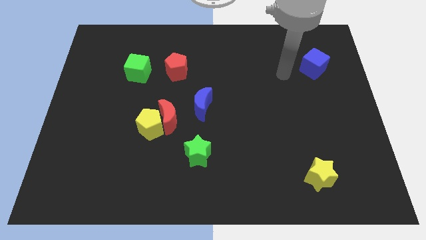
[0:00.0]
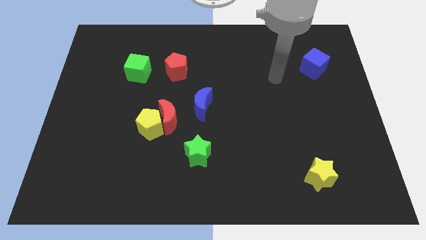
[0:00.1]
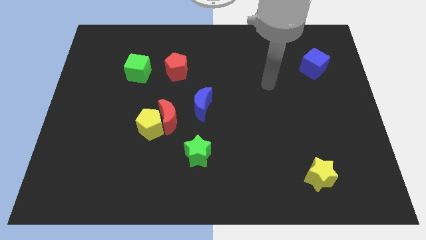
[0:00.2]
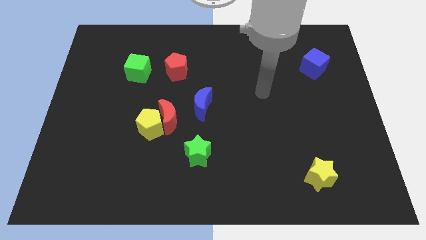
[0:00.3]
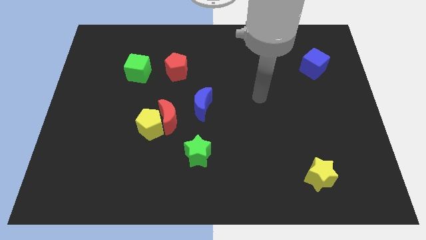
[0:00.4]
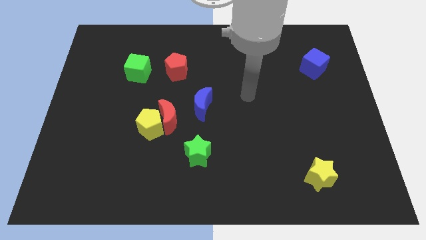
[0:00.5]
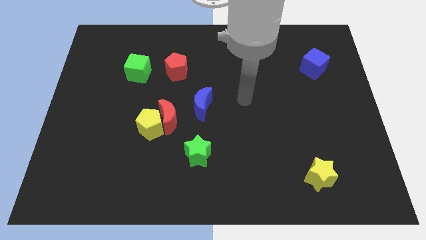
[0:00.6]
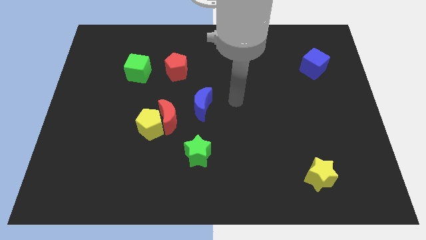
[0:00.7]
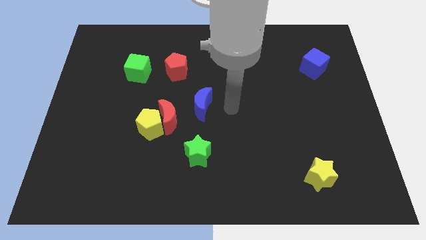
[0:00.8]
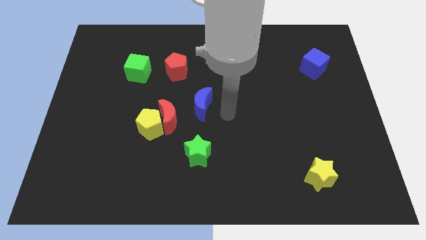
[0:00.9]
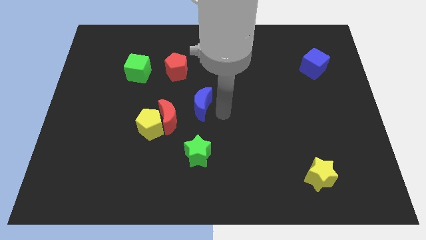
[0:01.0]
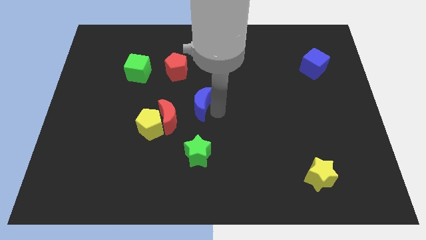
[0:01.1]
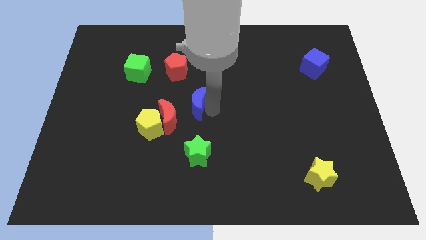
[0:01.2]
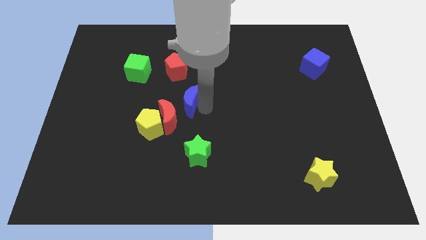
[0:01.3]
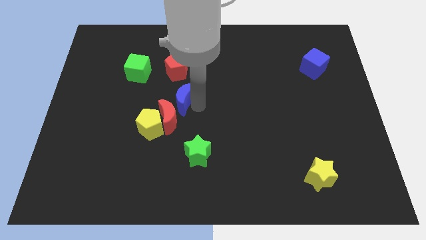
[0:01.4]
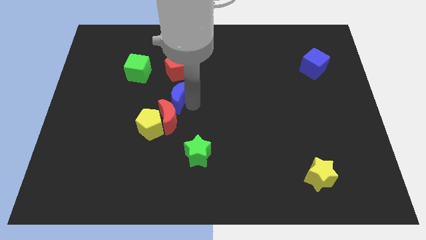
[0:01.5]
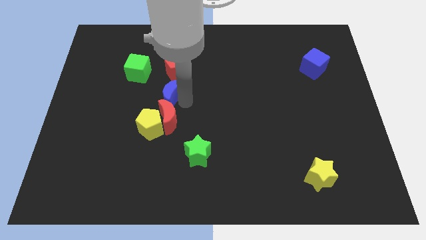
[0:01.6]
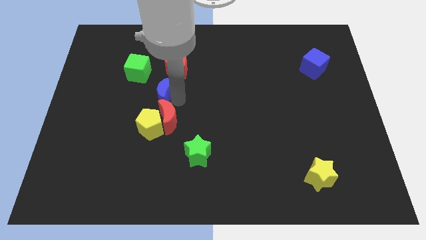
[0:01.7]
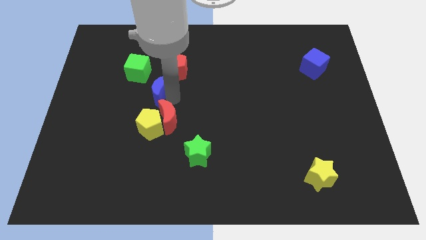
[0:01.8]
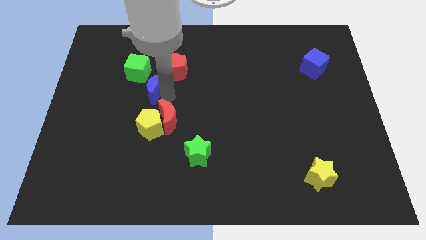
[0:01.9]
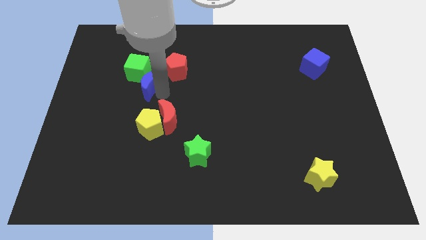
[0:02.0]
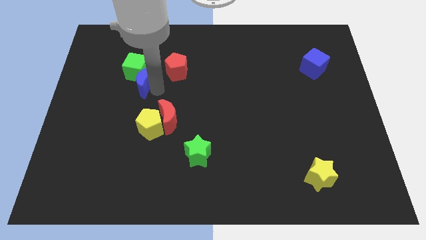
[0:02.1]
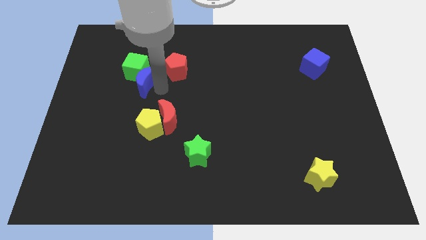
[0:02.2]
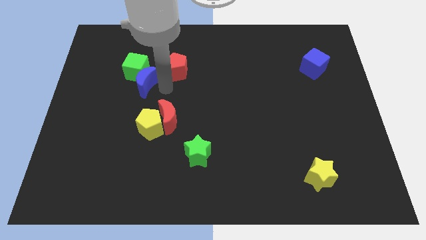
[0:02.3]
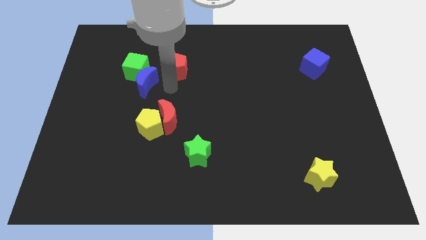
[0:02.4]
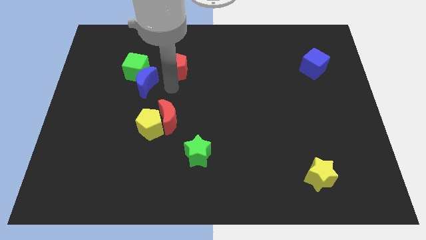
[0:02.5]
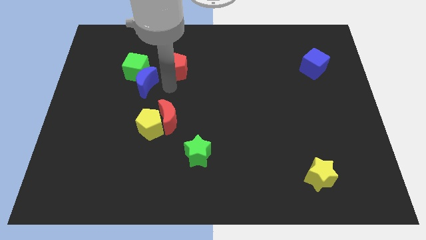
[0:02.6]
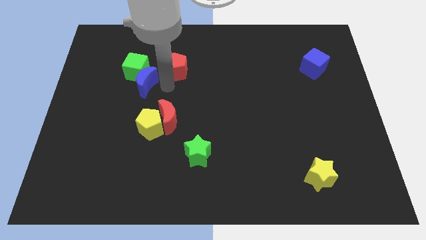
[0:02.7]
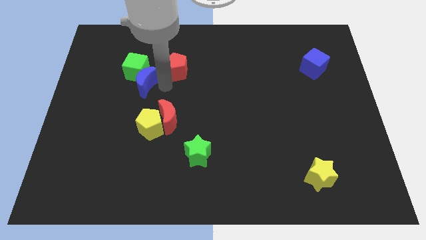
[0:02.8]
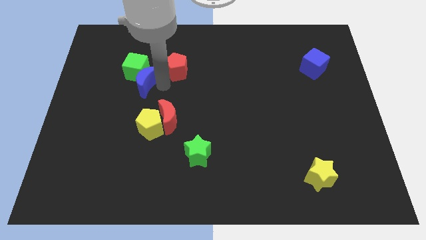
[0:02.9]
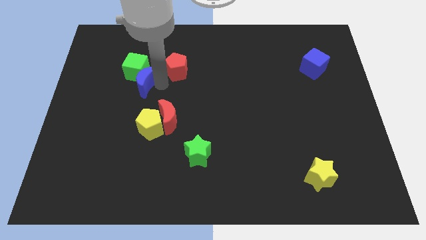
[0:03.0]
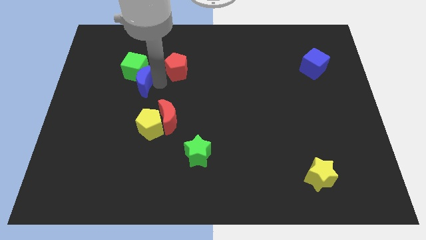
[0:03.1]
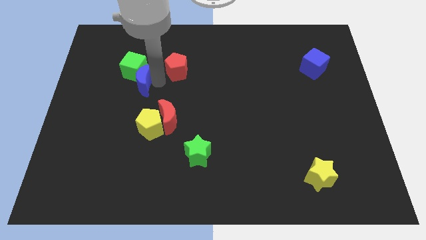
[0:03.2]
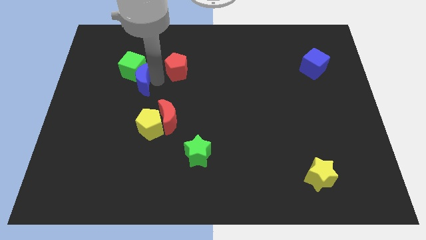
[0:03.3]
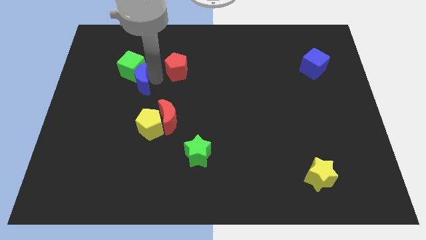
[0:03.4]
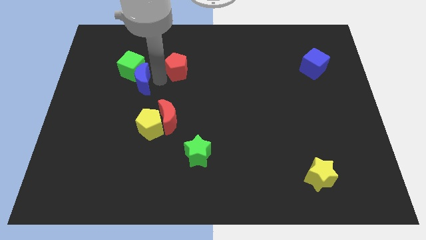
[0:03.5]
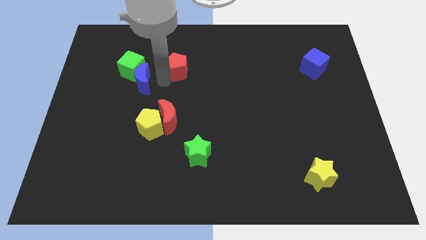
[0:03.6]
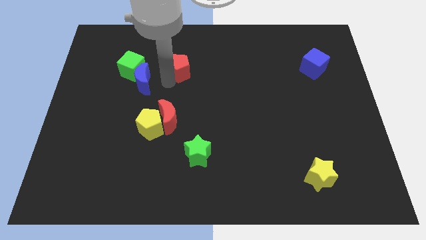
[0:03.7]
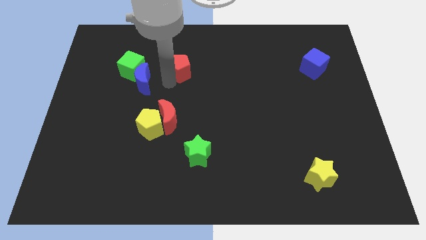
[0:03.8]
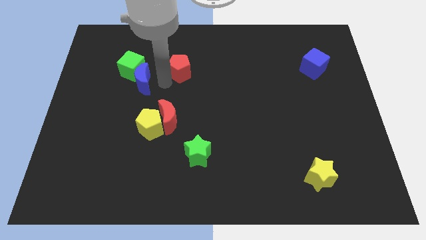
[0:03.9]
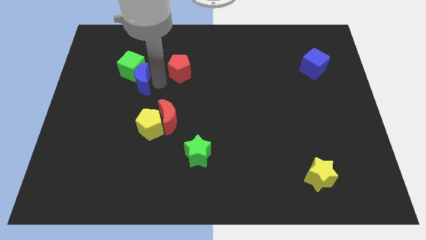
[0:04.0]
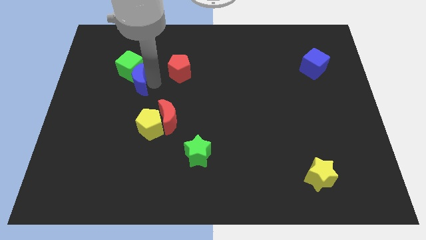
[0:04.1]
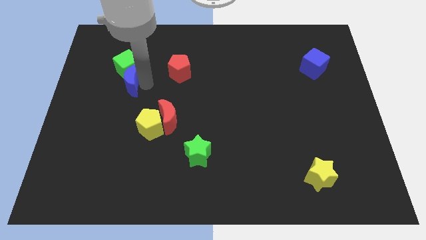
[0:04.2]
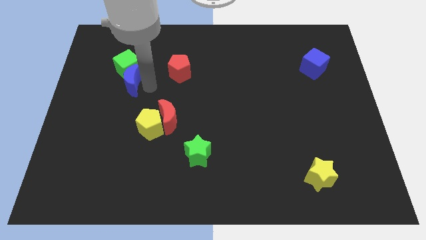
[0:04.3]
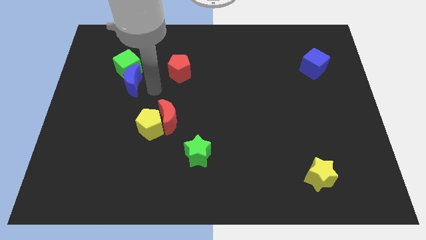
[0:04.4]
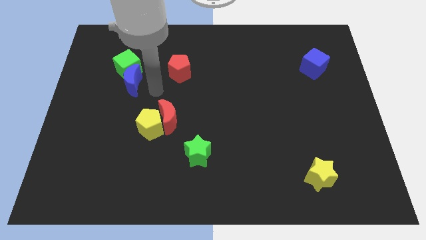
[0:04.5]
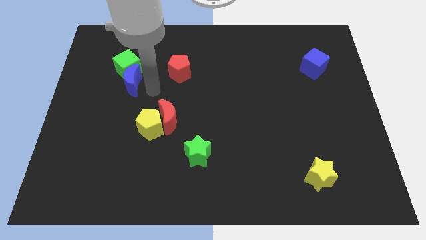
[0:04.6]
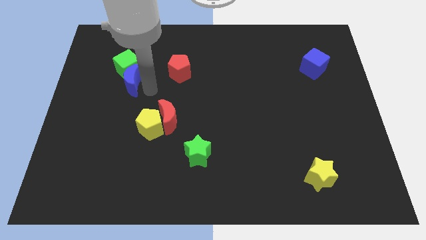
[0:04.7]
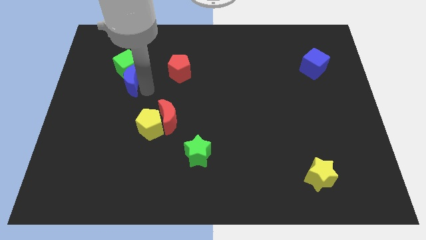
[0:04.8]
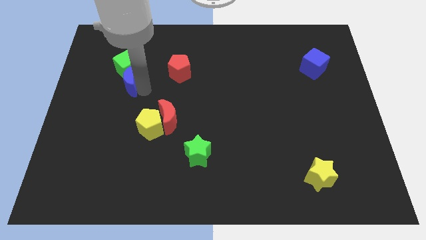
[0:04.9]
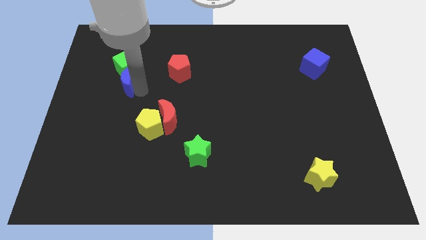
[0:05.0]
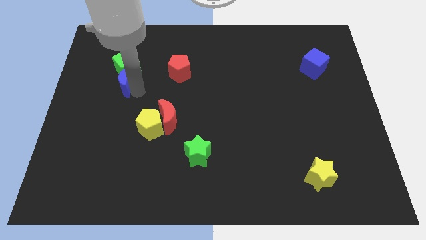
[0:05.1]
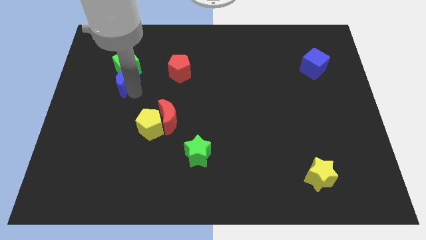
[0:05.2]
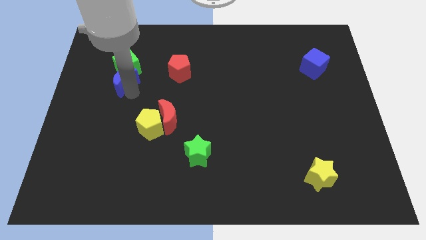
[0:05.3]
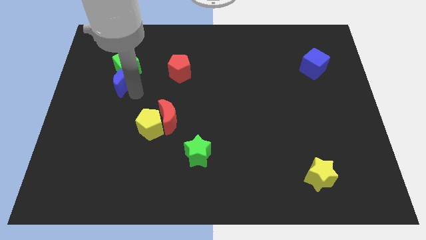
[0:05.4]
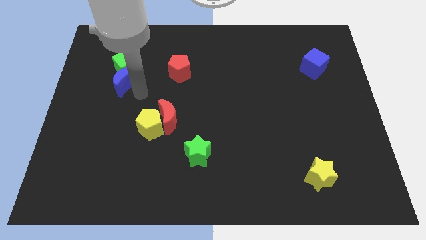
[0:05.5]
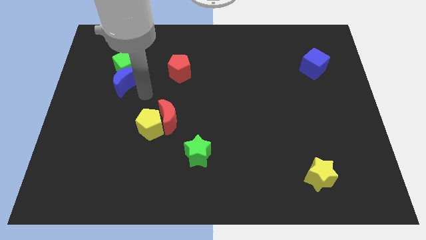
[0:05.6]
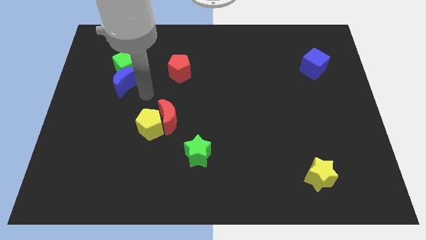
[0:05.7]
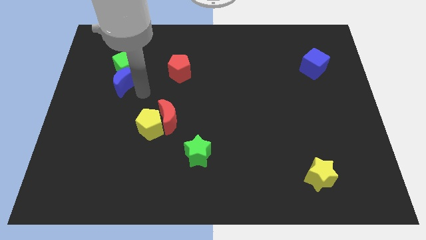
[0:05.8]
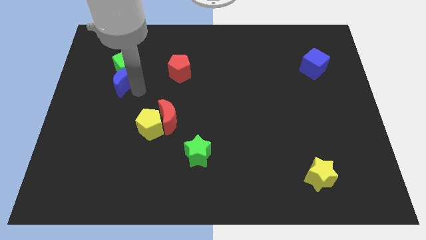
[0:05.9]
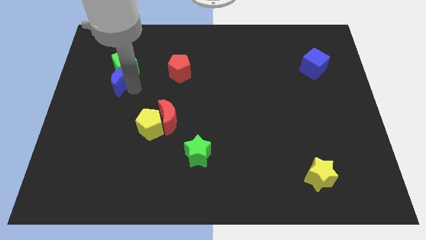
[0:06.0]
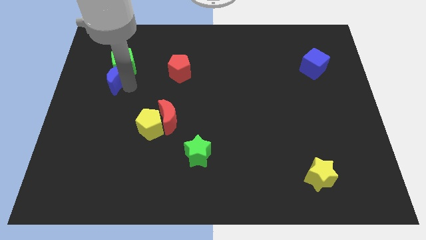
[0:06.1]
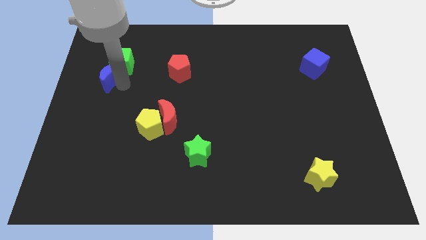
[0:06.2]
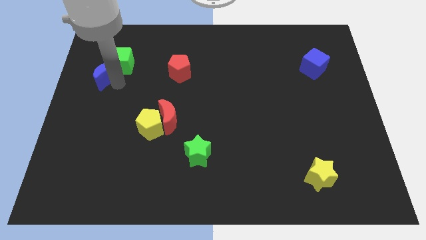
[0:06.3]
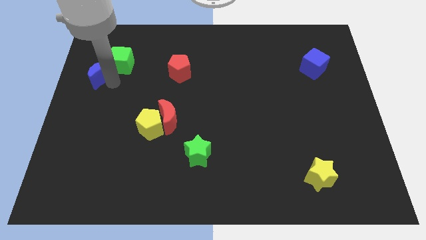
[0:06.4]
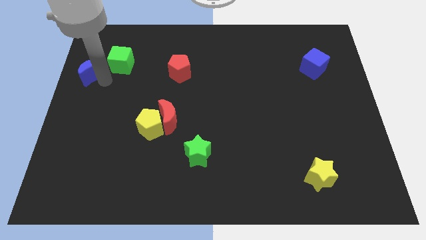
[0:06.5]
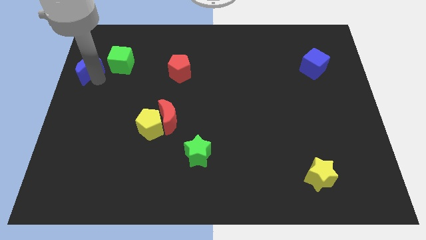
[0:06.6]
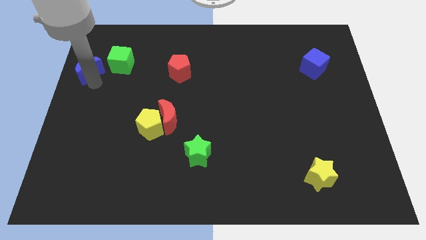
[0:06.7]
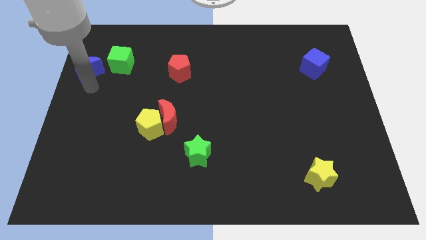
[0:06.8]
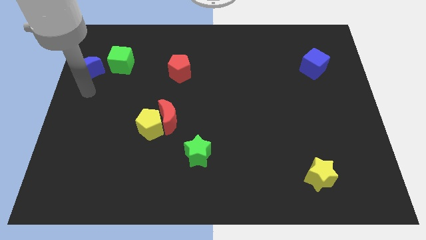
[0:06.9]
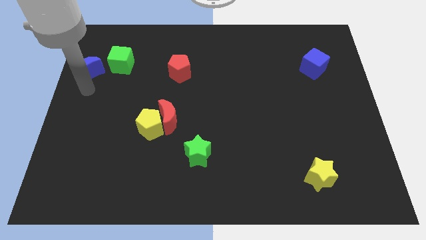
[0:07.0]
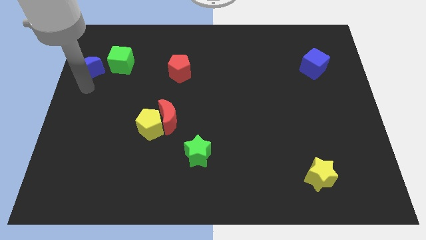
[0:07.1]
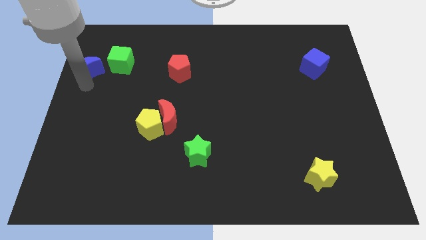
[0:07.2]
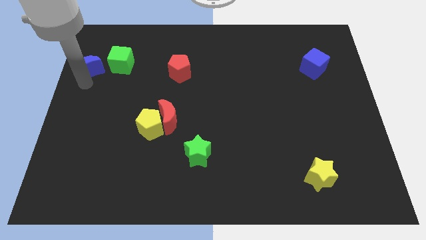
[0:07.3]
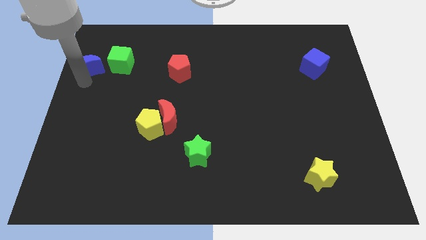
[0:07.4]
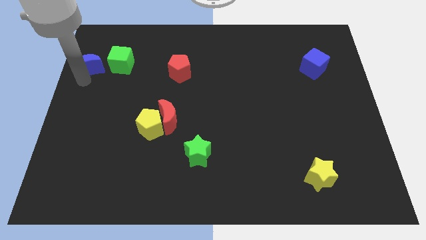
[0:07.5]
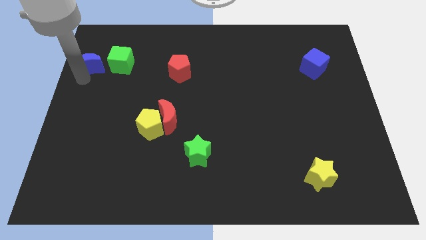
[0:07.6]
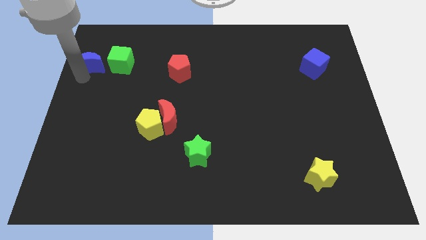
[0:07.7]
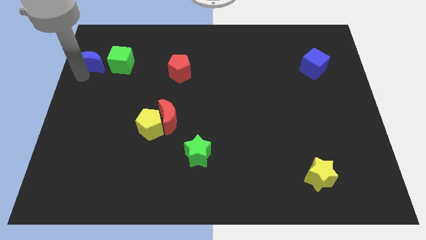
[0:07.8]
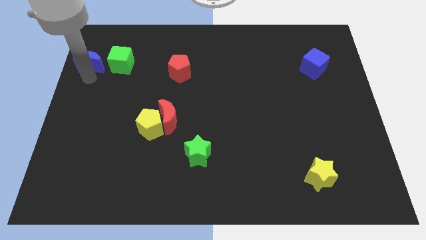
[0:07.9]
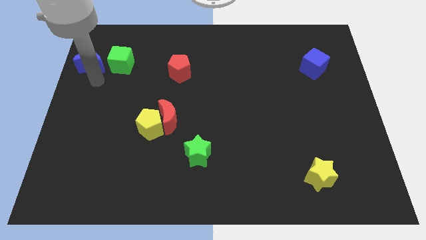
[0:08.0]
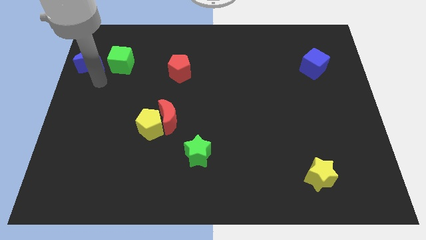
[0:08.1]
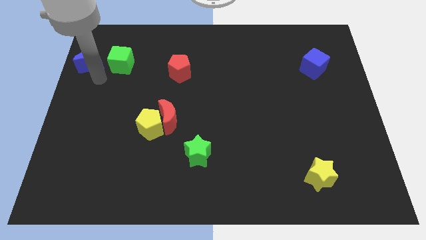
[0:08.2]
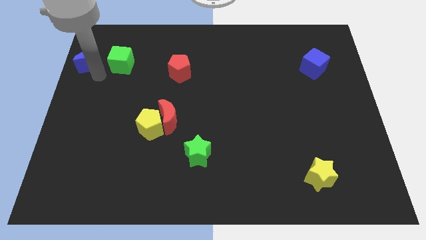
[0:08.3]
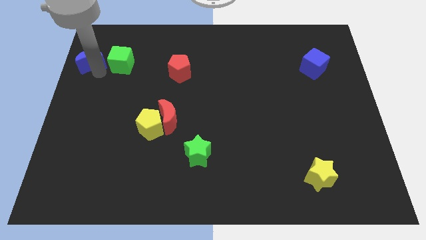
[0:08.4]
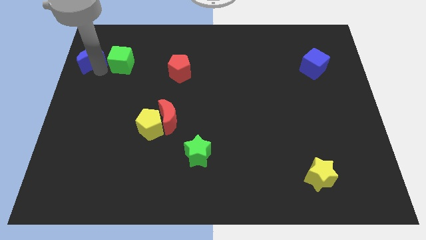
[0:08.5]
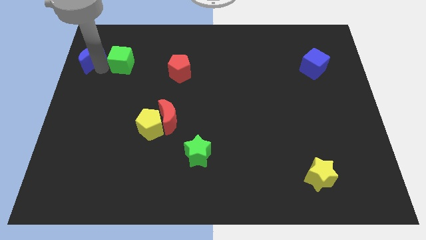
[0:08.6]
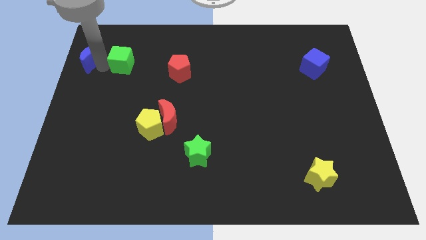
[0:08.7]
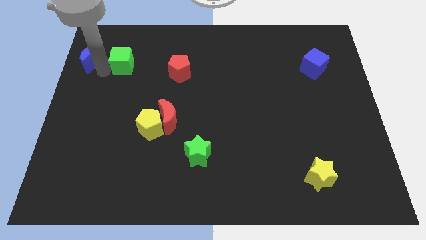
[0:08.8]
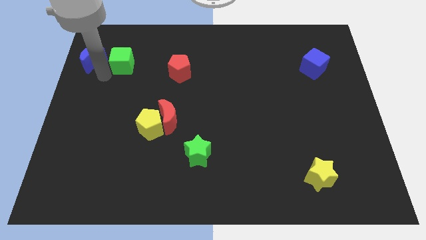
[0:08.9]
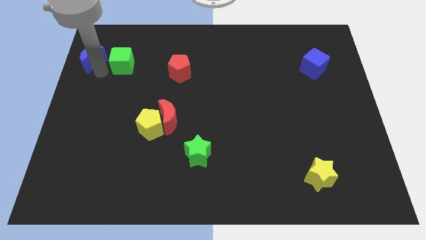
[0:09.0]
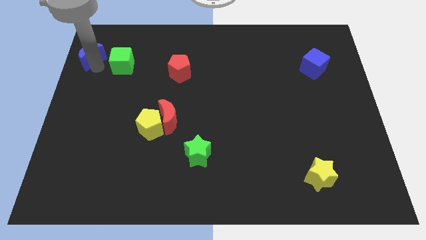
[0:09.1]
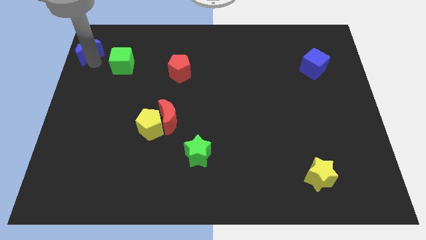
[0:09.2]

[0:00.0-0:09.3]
put the blue moon to the upper left corner
